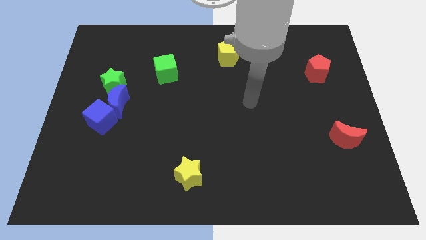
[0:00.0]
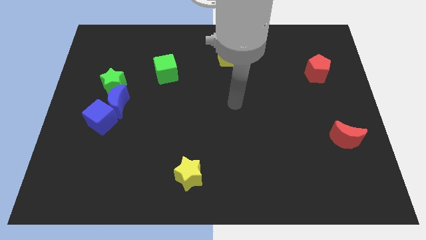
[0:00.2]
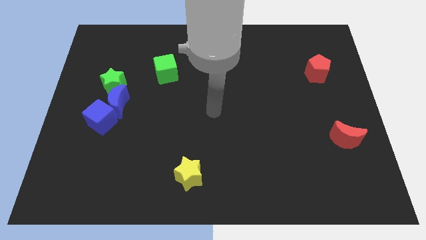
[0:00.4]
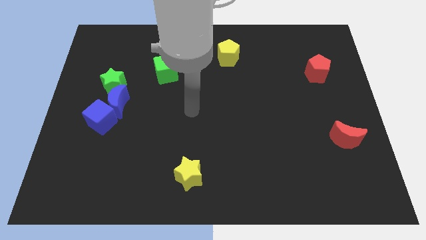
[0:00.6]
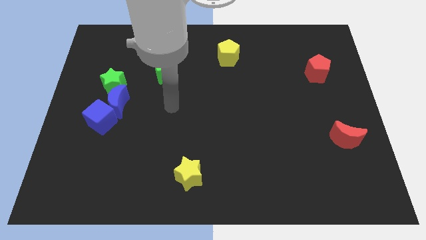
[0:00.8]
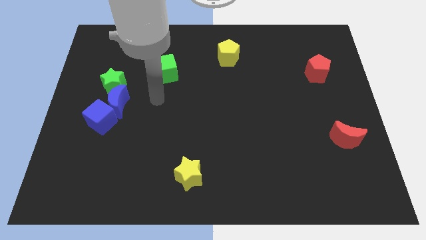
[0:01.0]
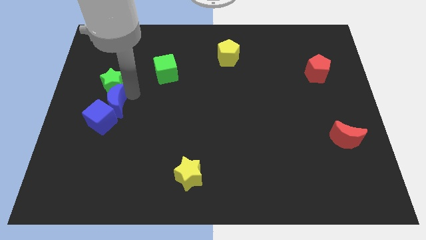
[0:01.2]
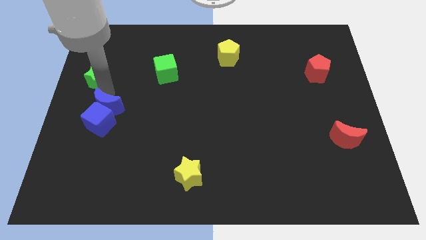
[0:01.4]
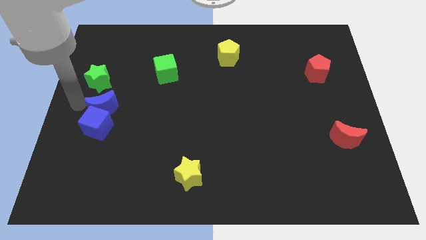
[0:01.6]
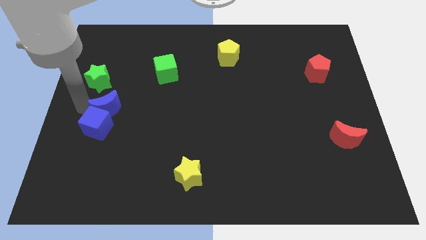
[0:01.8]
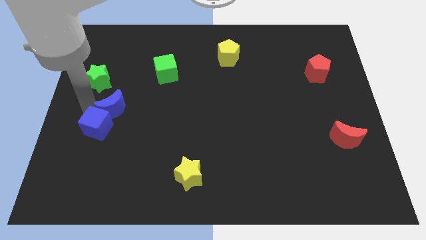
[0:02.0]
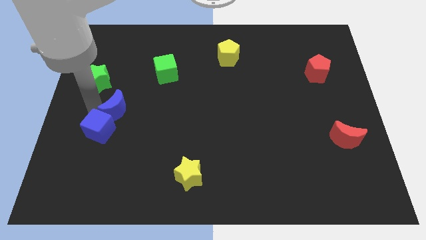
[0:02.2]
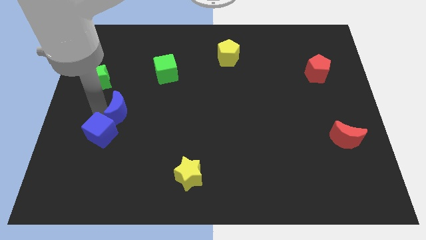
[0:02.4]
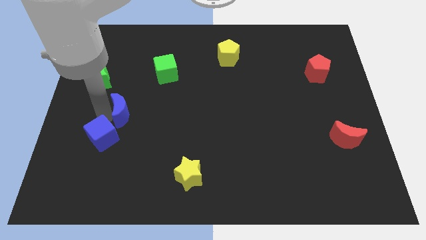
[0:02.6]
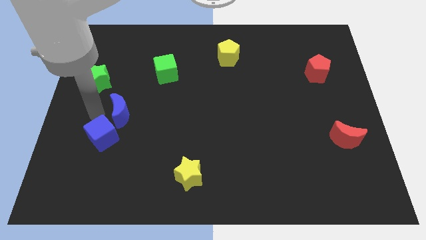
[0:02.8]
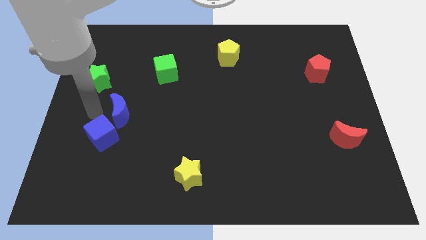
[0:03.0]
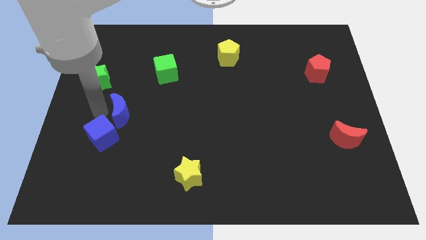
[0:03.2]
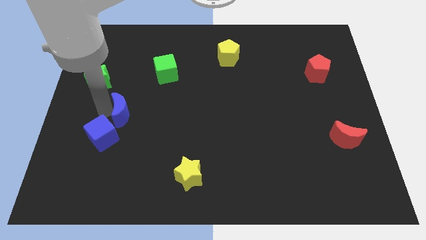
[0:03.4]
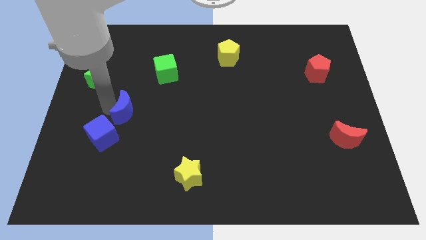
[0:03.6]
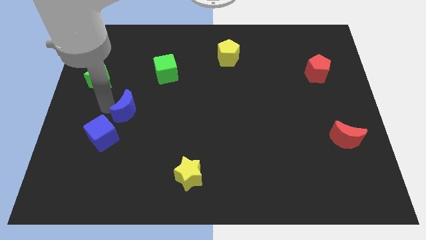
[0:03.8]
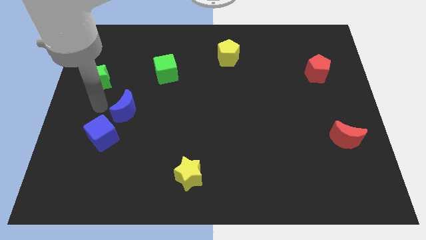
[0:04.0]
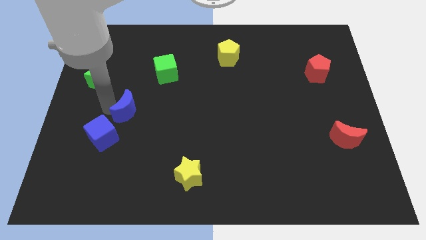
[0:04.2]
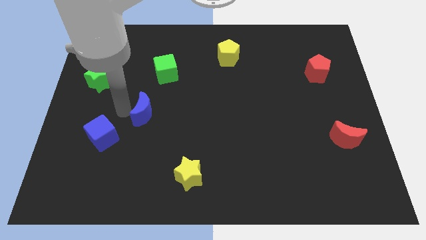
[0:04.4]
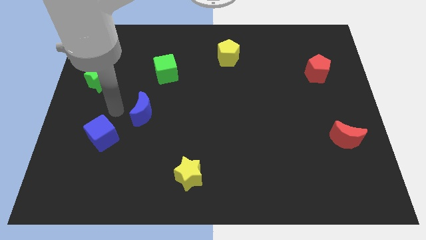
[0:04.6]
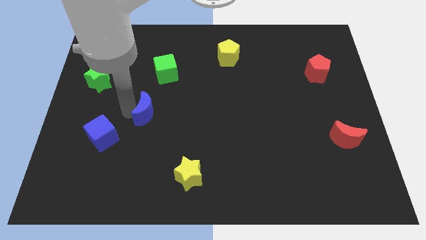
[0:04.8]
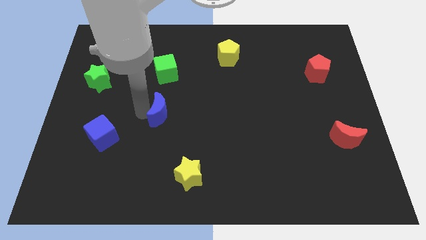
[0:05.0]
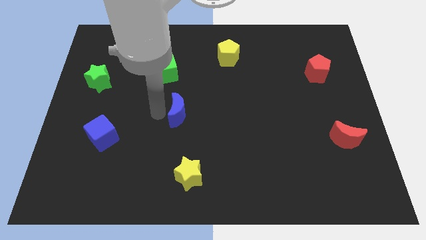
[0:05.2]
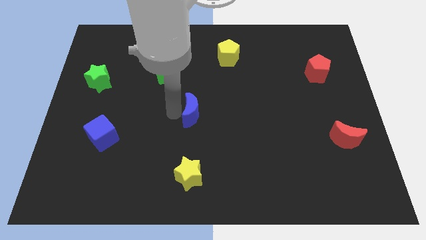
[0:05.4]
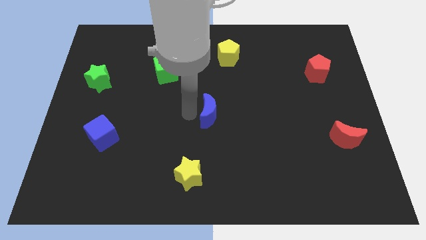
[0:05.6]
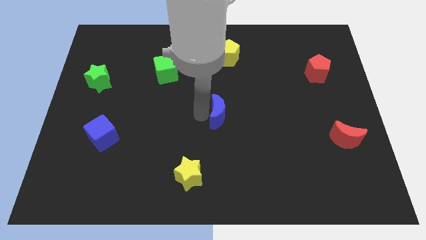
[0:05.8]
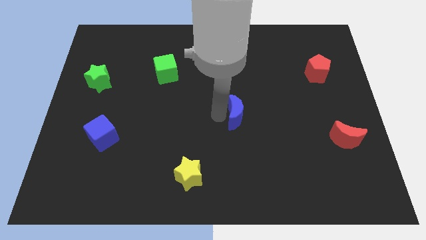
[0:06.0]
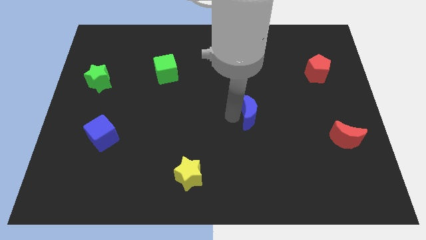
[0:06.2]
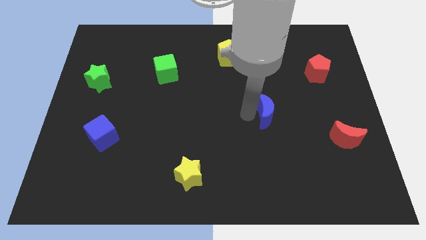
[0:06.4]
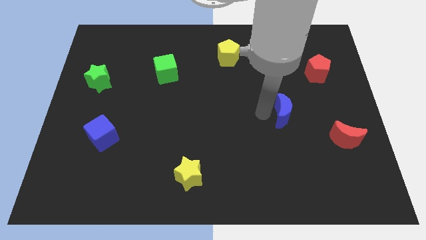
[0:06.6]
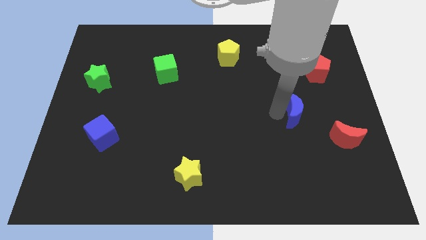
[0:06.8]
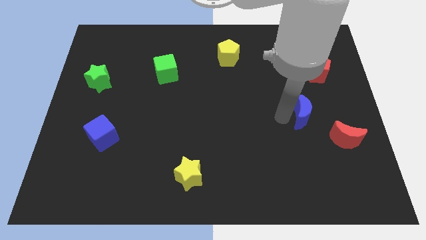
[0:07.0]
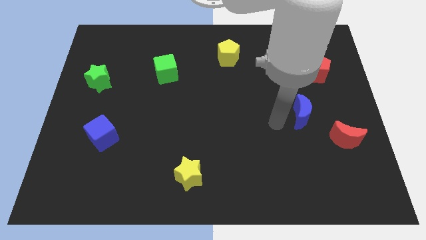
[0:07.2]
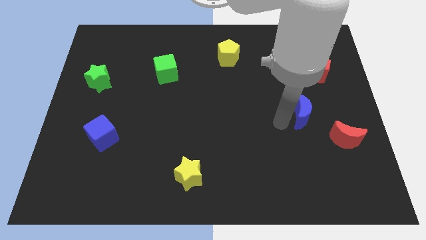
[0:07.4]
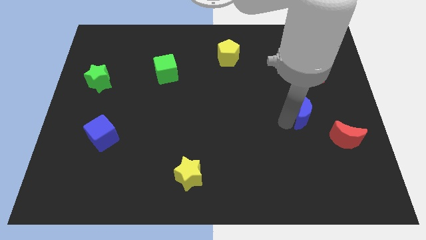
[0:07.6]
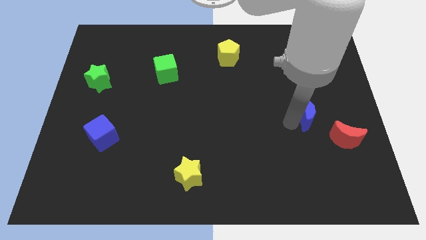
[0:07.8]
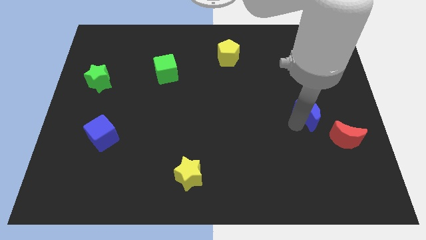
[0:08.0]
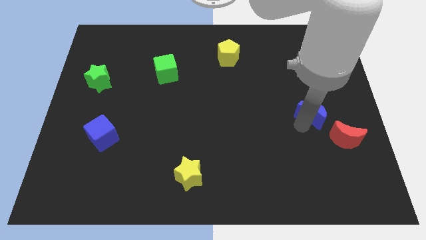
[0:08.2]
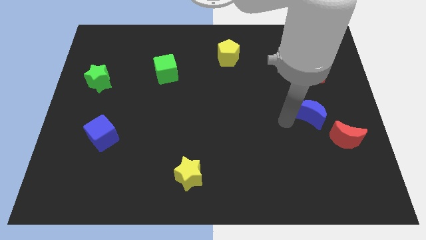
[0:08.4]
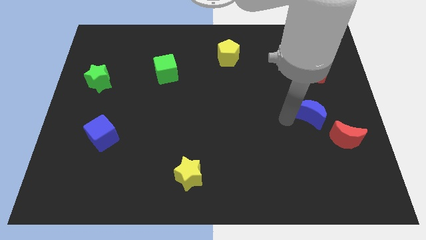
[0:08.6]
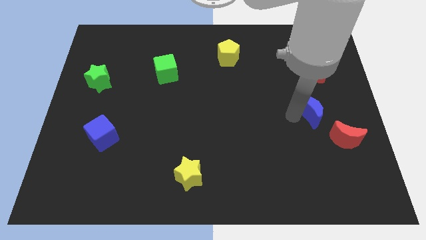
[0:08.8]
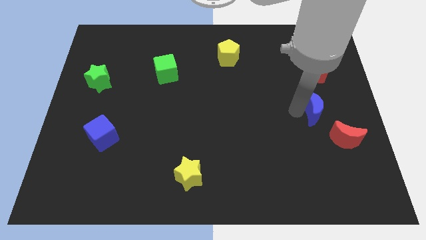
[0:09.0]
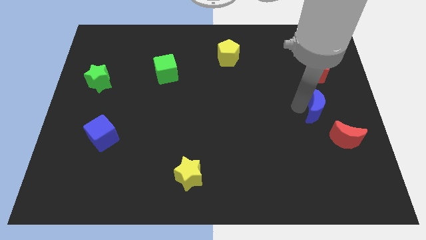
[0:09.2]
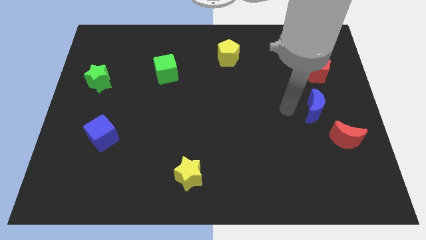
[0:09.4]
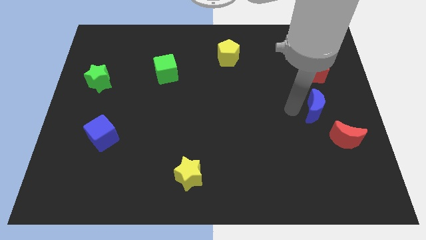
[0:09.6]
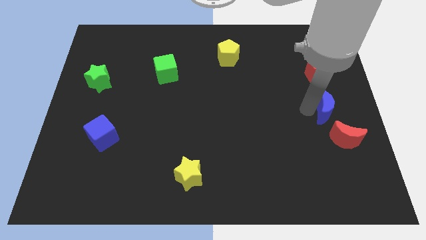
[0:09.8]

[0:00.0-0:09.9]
move the blue moon to the right side

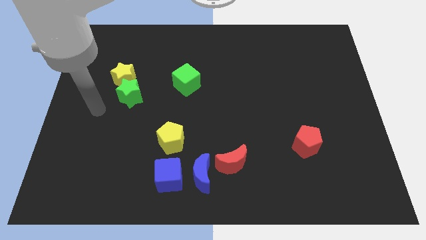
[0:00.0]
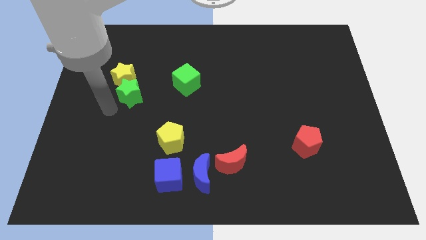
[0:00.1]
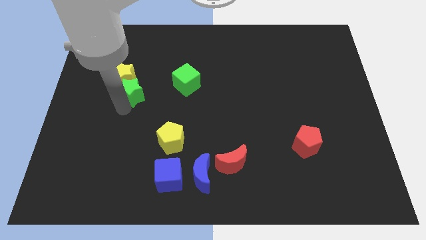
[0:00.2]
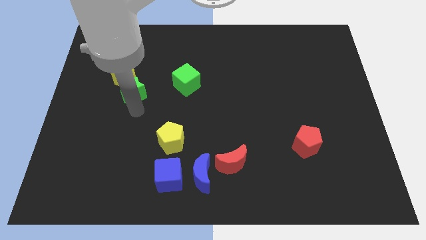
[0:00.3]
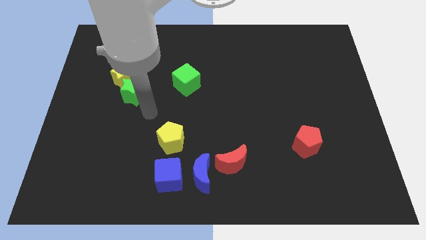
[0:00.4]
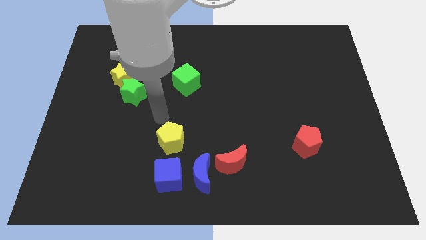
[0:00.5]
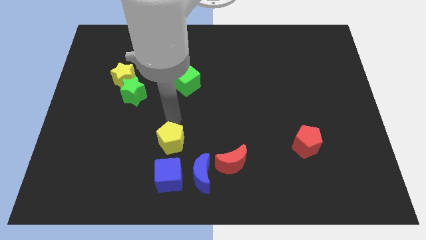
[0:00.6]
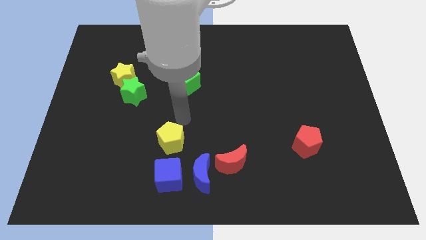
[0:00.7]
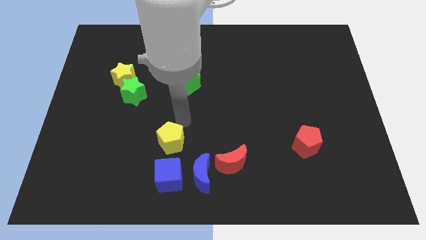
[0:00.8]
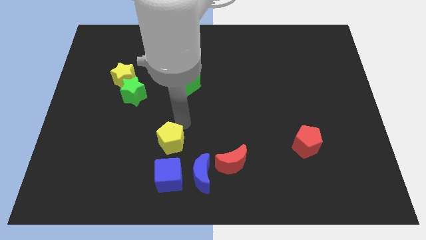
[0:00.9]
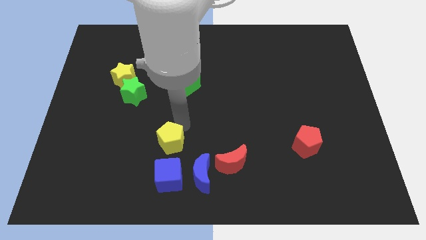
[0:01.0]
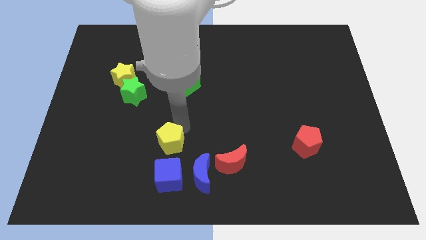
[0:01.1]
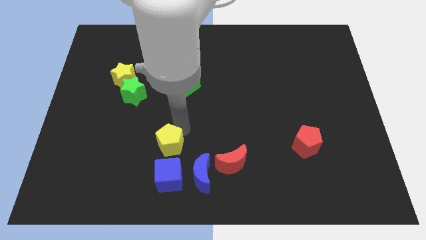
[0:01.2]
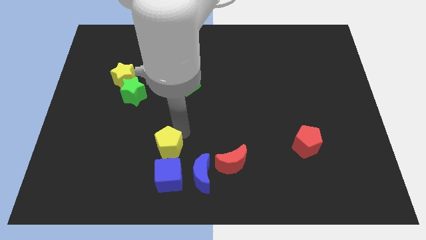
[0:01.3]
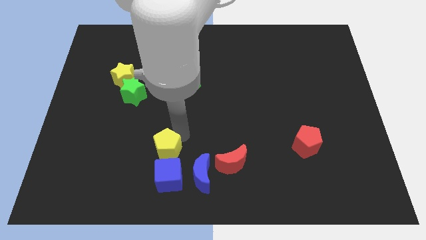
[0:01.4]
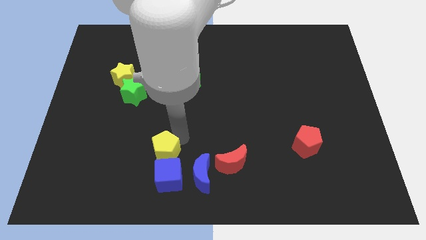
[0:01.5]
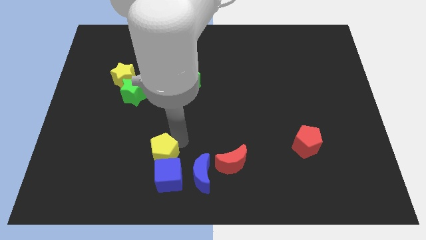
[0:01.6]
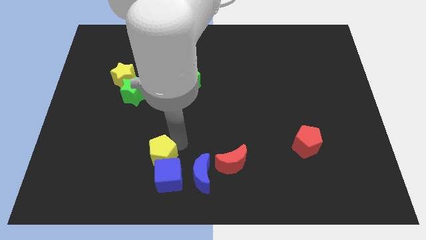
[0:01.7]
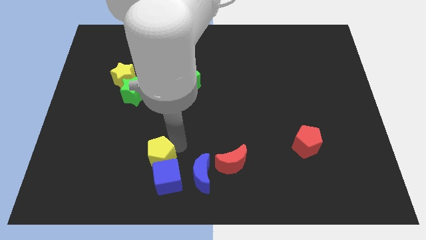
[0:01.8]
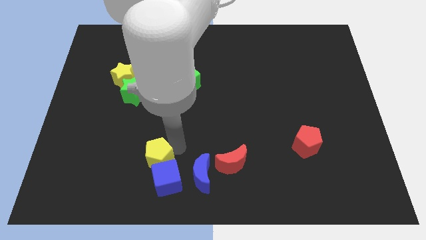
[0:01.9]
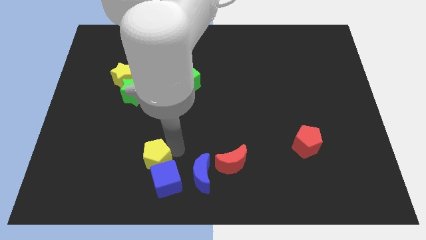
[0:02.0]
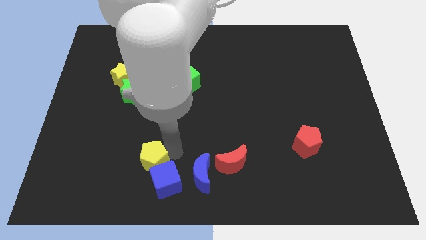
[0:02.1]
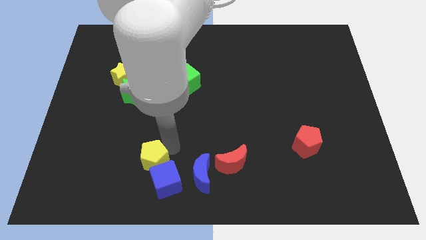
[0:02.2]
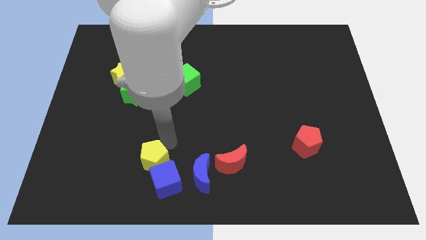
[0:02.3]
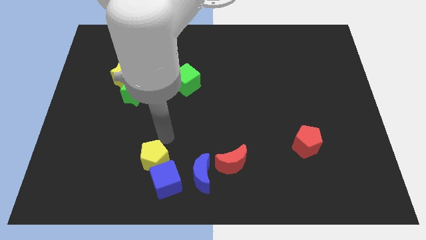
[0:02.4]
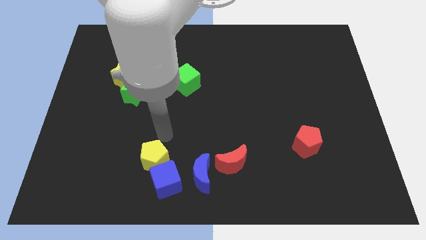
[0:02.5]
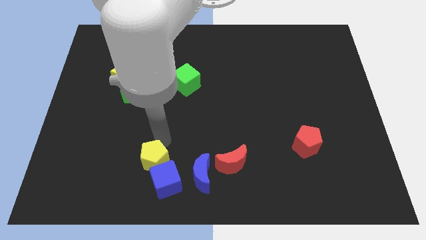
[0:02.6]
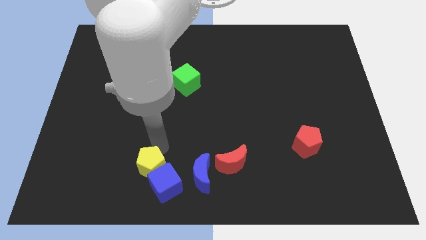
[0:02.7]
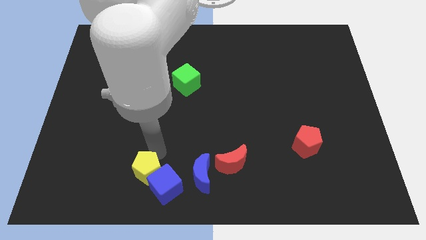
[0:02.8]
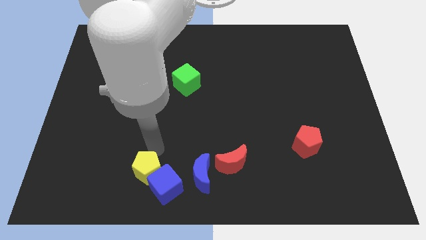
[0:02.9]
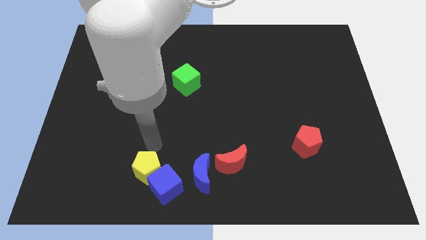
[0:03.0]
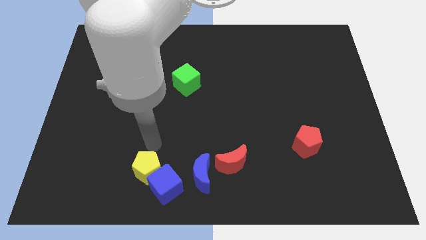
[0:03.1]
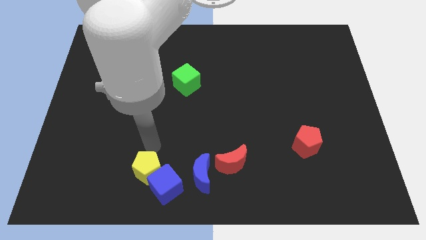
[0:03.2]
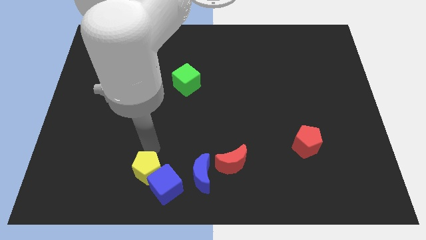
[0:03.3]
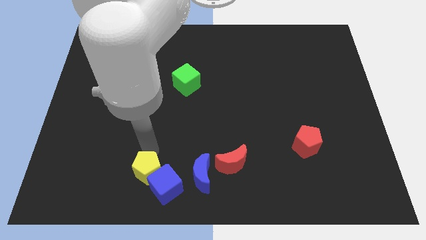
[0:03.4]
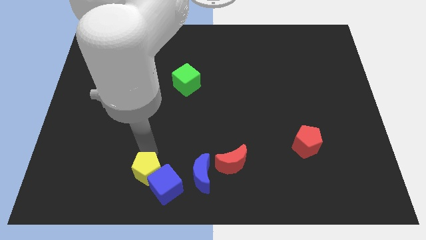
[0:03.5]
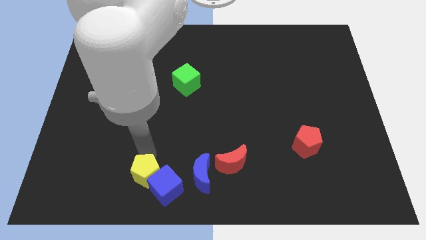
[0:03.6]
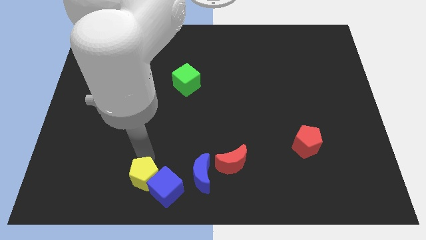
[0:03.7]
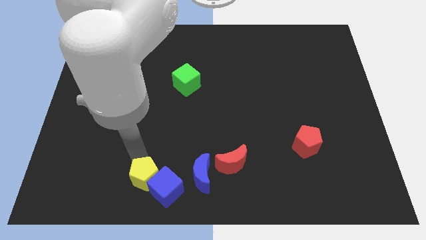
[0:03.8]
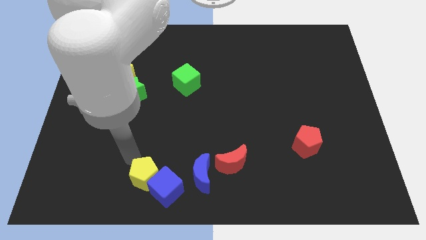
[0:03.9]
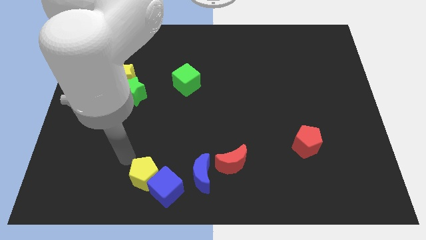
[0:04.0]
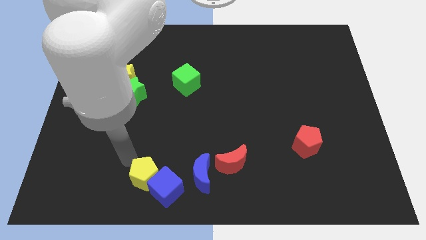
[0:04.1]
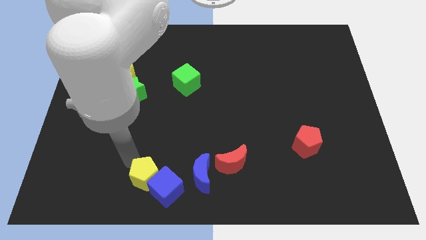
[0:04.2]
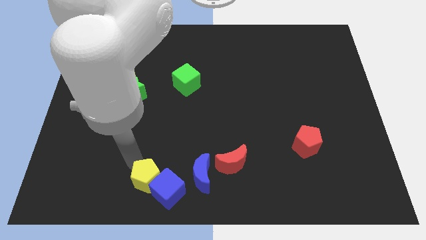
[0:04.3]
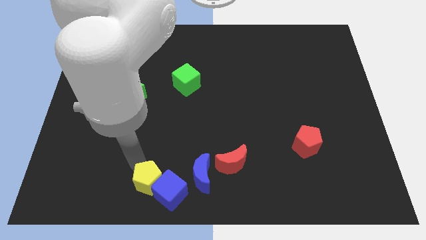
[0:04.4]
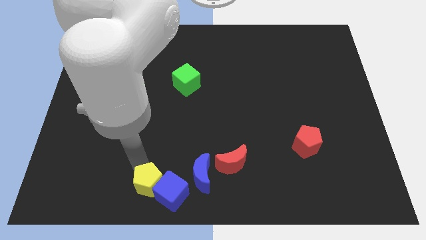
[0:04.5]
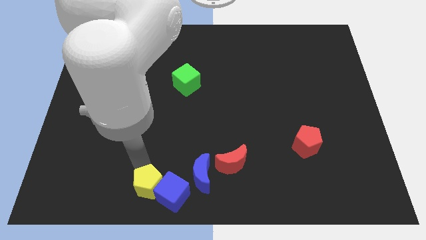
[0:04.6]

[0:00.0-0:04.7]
move the yellow pentagon to the bottom
